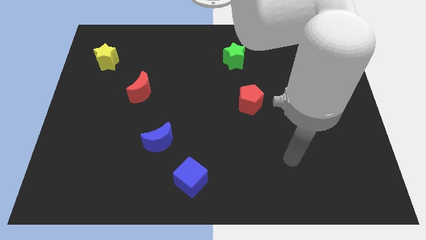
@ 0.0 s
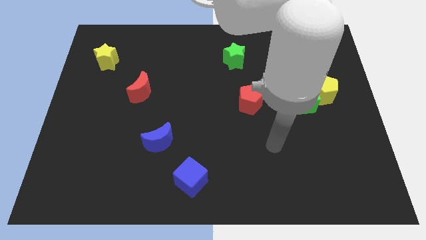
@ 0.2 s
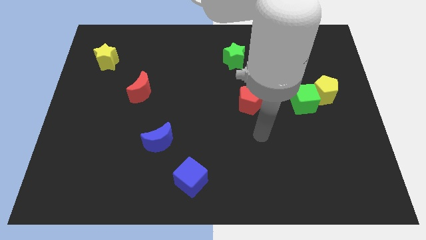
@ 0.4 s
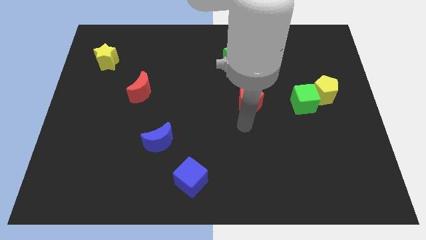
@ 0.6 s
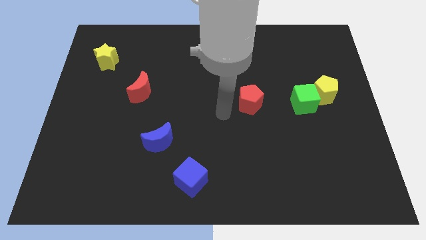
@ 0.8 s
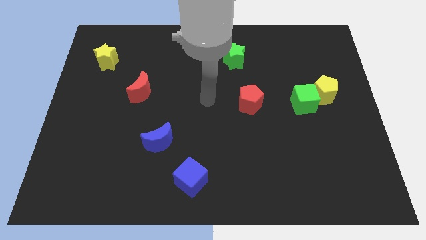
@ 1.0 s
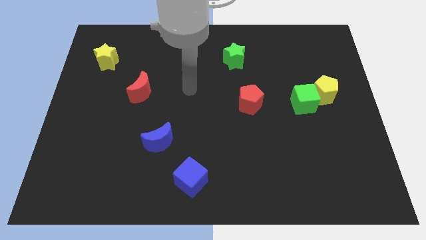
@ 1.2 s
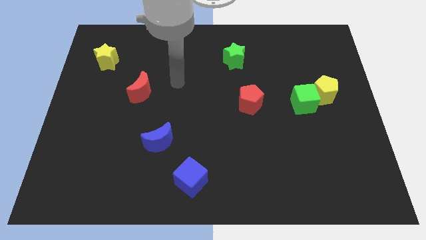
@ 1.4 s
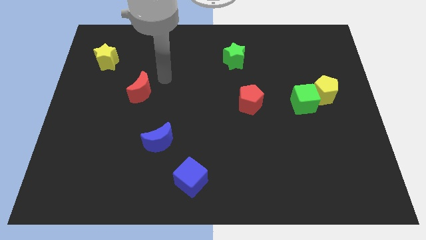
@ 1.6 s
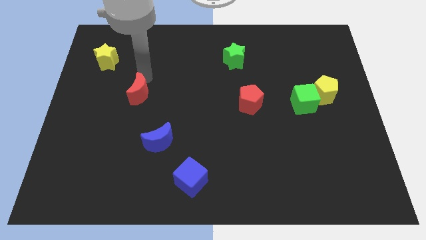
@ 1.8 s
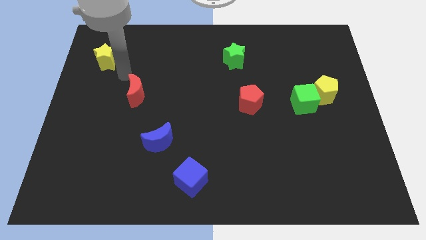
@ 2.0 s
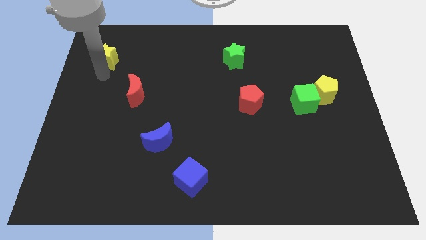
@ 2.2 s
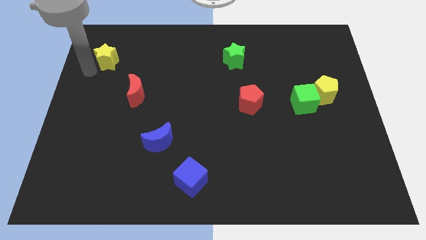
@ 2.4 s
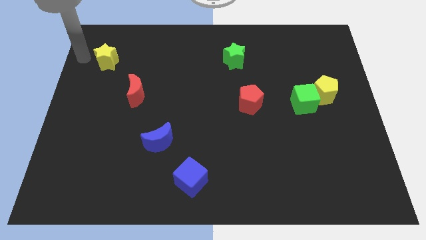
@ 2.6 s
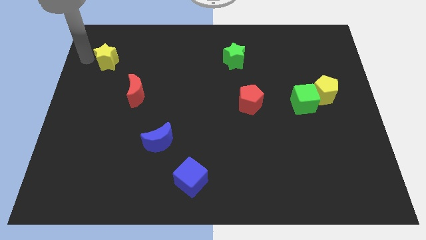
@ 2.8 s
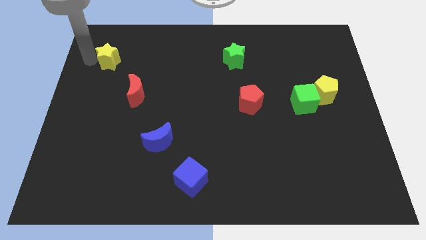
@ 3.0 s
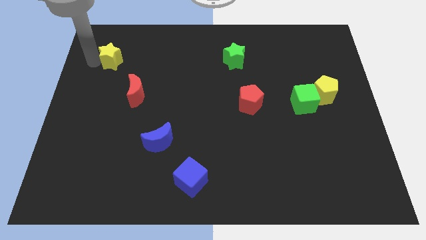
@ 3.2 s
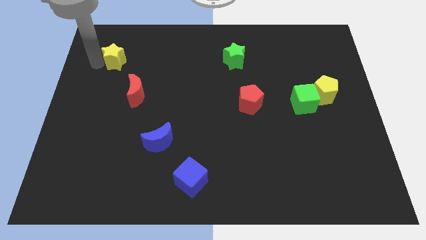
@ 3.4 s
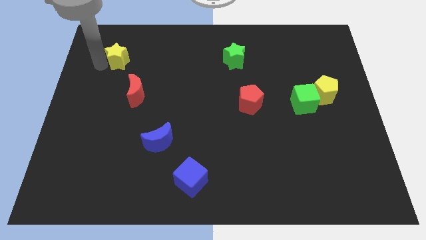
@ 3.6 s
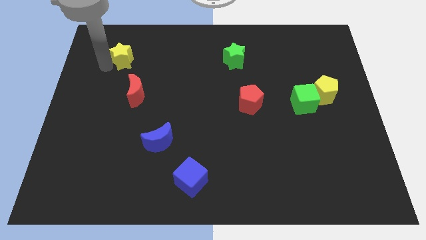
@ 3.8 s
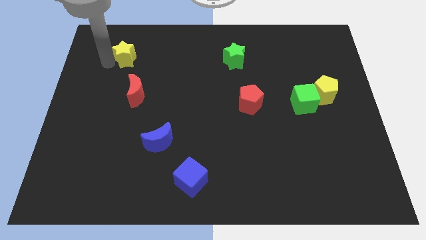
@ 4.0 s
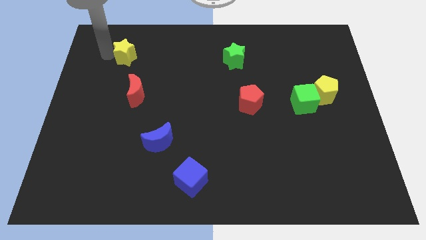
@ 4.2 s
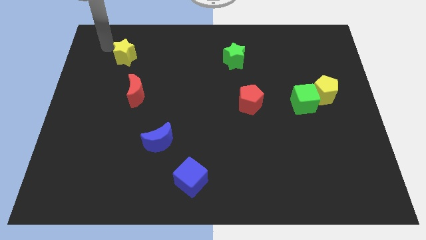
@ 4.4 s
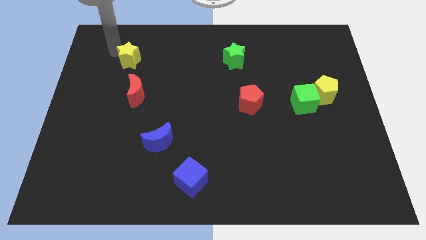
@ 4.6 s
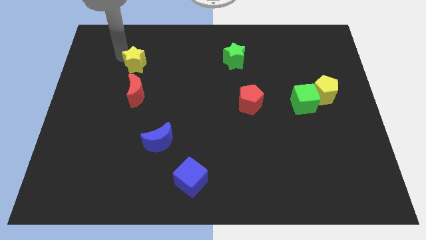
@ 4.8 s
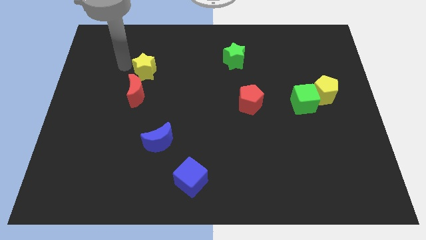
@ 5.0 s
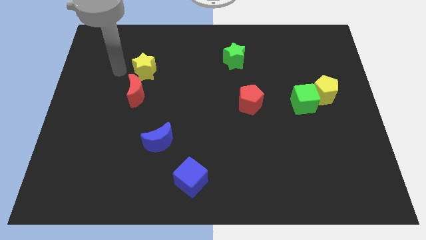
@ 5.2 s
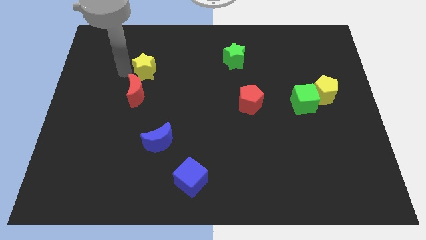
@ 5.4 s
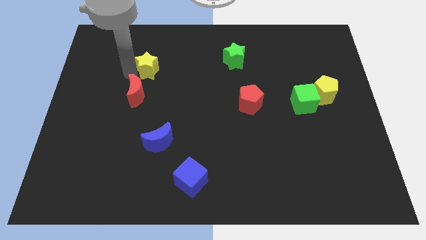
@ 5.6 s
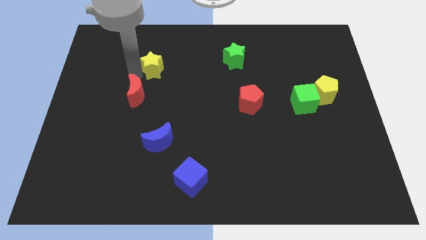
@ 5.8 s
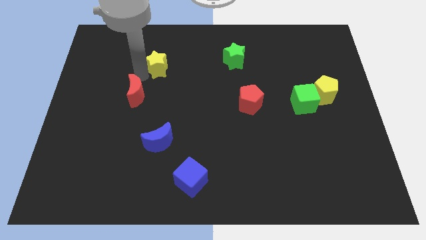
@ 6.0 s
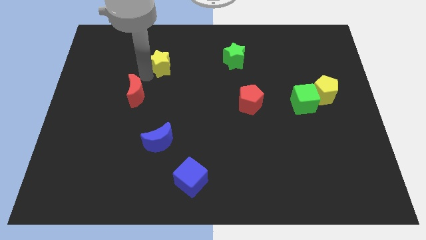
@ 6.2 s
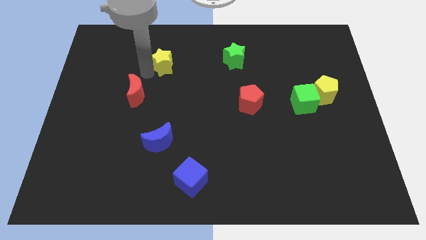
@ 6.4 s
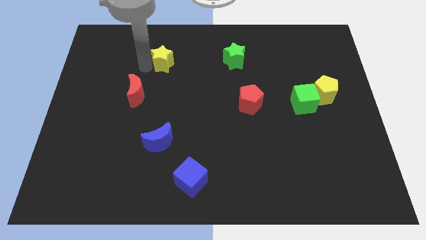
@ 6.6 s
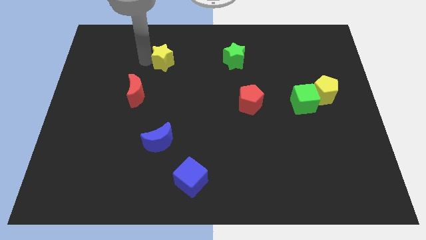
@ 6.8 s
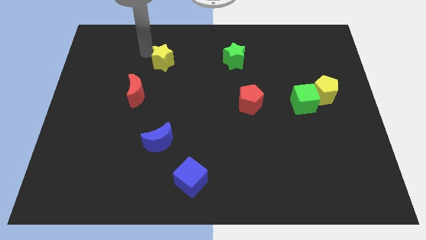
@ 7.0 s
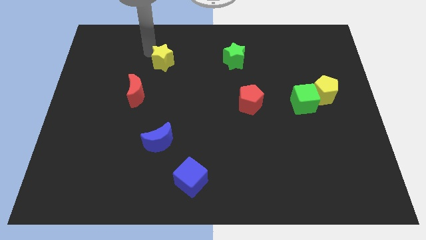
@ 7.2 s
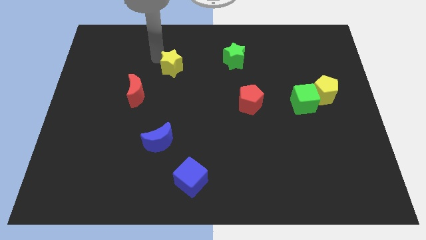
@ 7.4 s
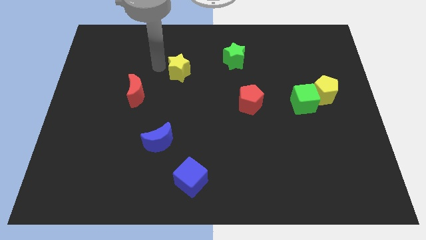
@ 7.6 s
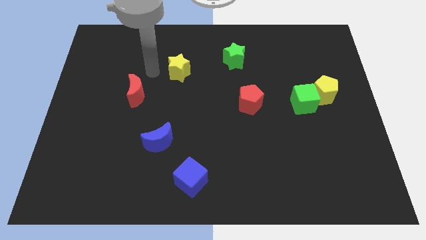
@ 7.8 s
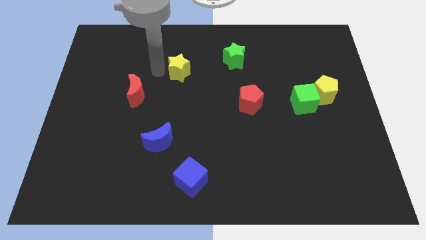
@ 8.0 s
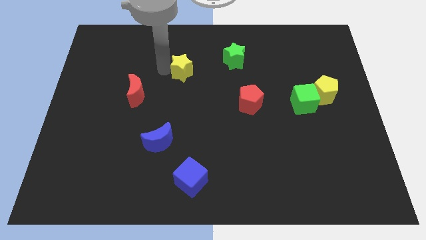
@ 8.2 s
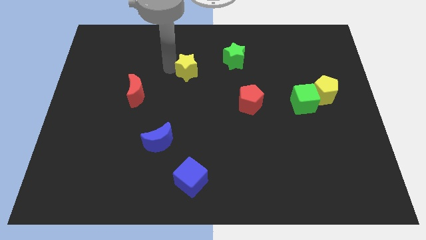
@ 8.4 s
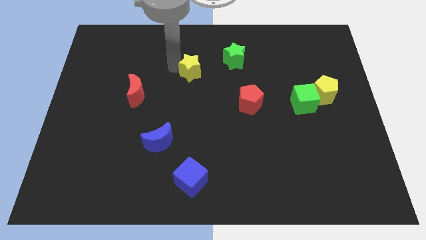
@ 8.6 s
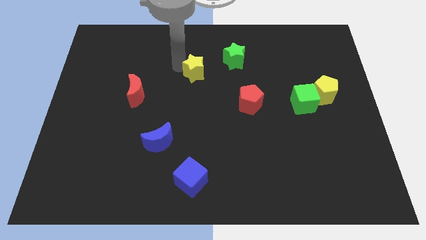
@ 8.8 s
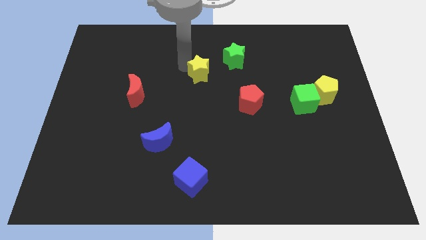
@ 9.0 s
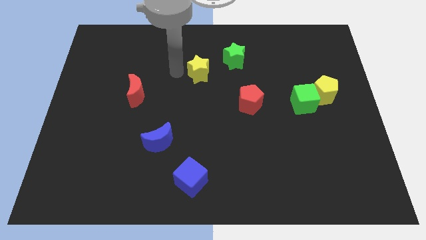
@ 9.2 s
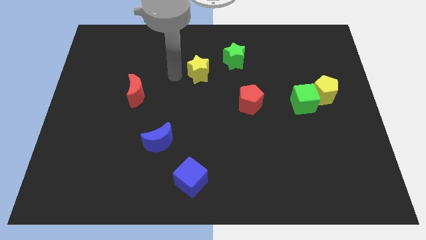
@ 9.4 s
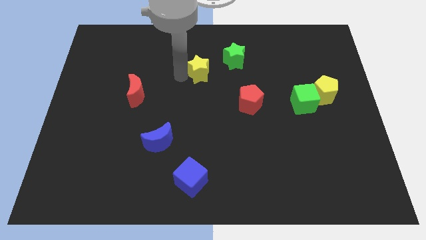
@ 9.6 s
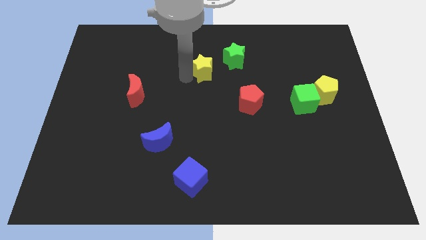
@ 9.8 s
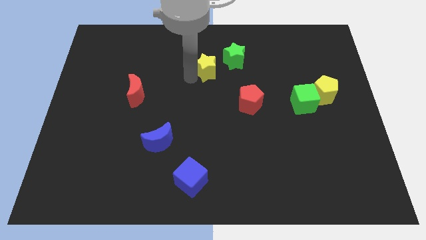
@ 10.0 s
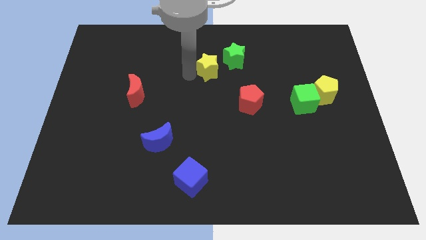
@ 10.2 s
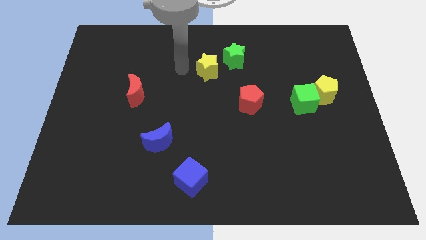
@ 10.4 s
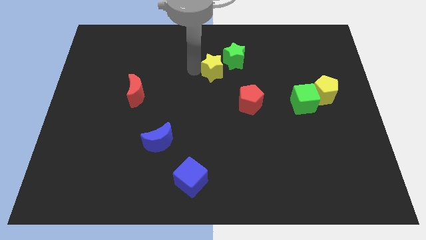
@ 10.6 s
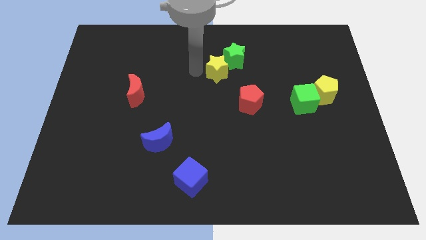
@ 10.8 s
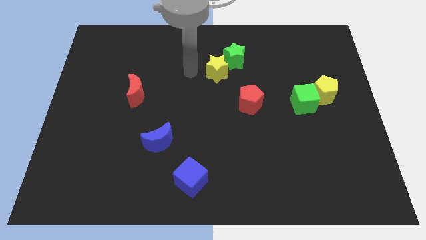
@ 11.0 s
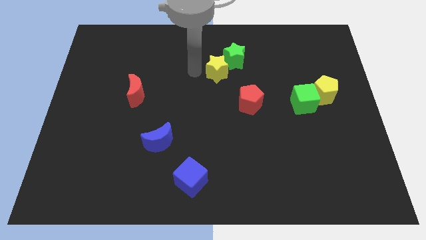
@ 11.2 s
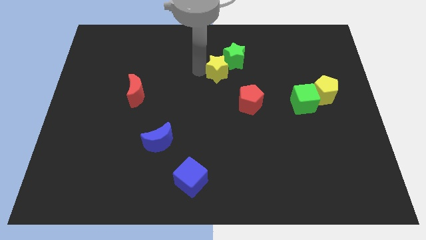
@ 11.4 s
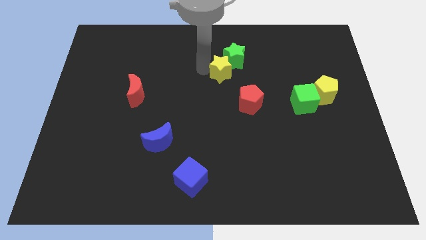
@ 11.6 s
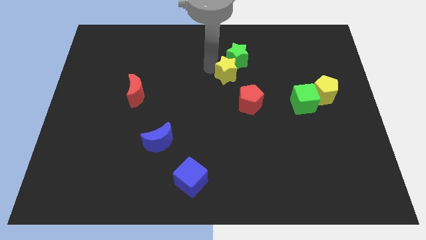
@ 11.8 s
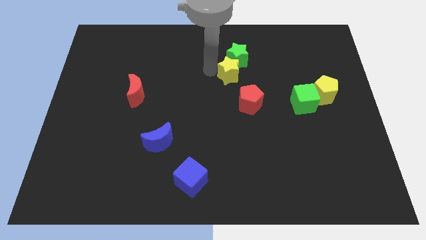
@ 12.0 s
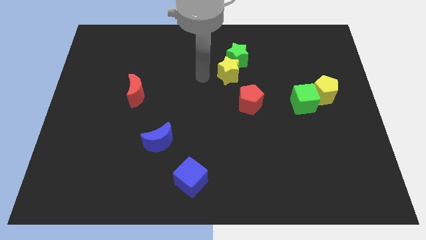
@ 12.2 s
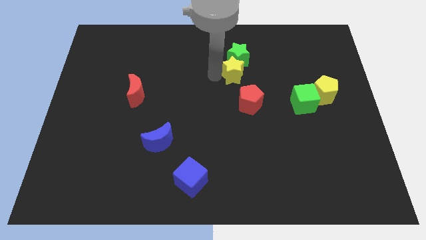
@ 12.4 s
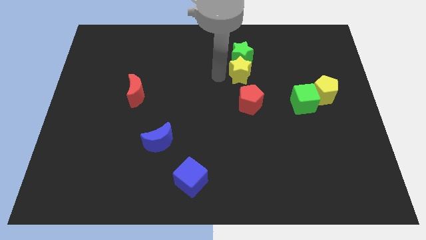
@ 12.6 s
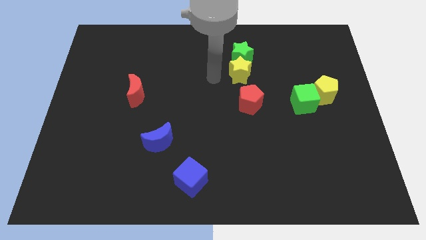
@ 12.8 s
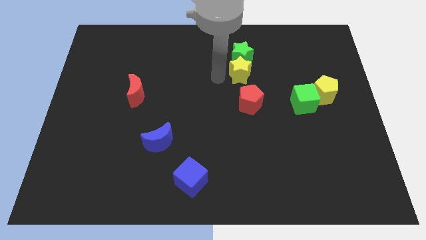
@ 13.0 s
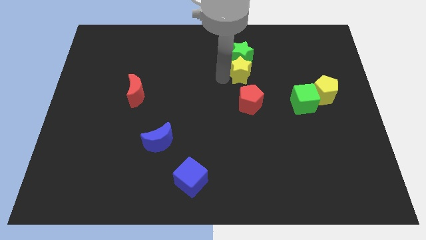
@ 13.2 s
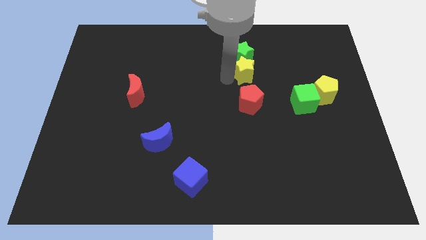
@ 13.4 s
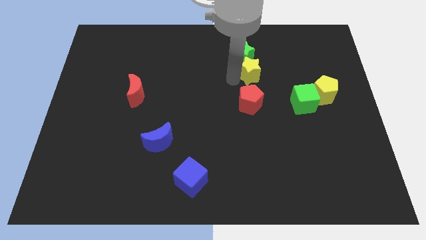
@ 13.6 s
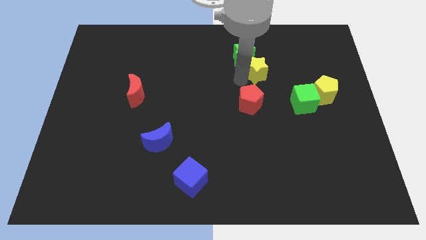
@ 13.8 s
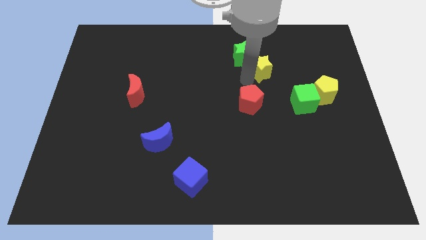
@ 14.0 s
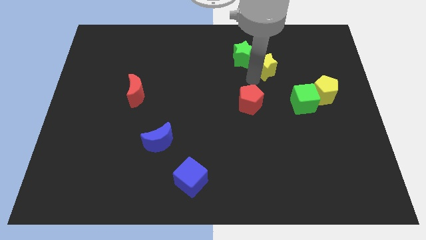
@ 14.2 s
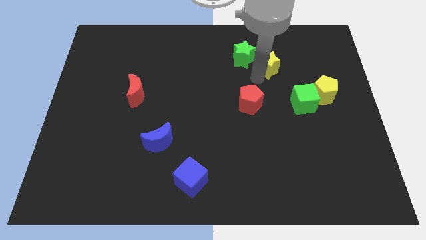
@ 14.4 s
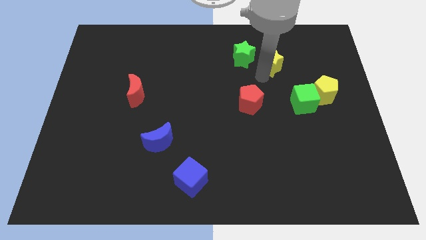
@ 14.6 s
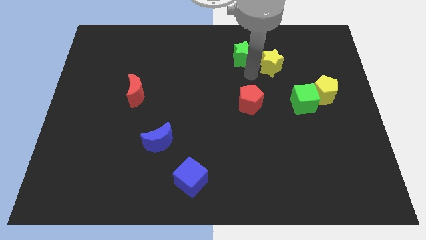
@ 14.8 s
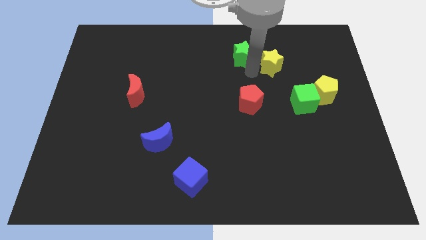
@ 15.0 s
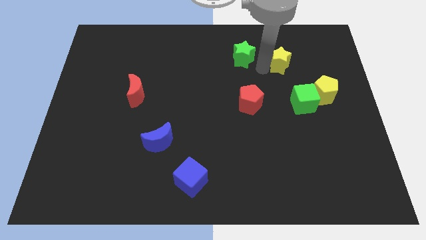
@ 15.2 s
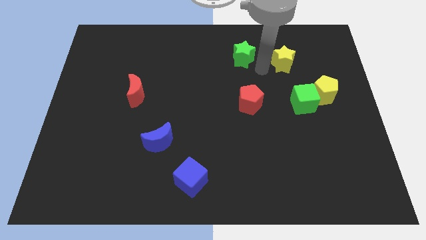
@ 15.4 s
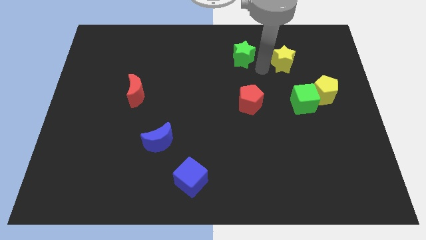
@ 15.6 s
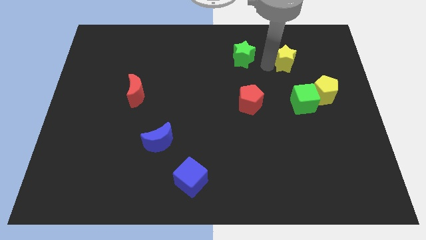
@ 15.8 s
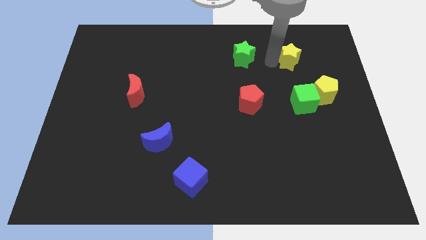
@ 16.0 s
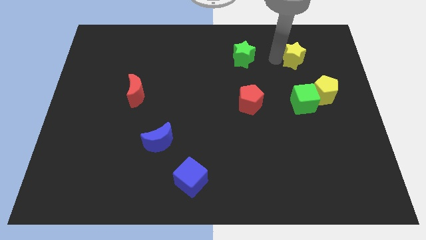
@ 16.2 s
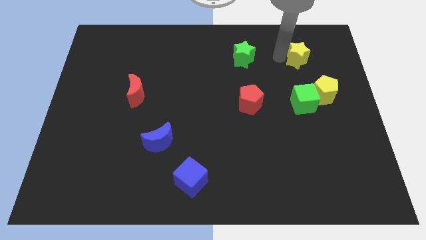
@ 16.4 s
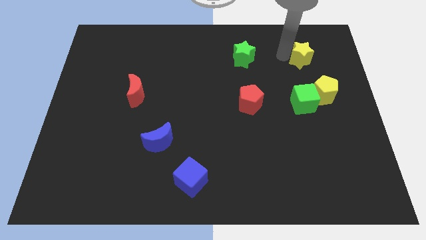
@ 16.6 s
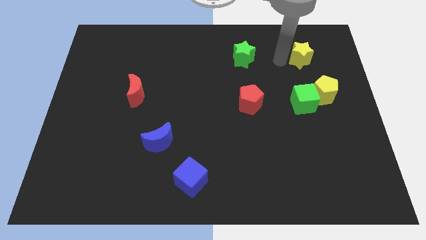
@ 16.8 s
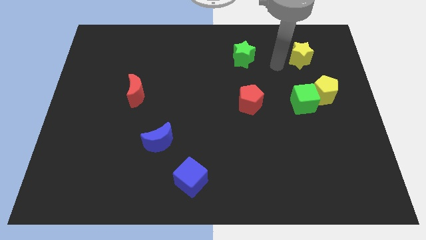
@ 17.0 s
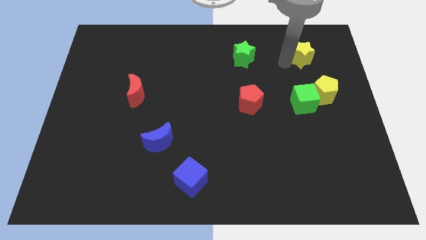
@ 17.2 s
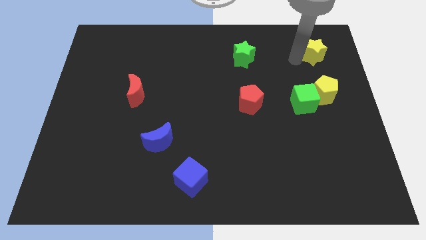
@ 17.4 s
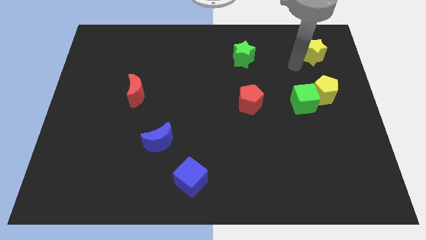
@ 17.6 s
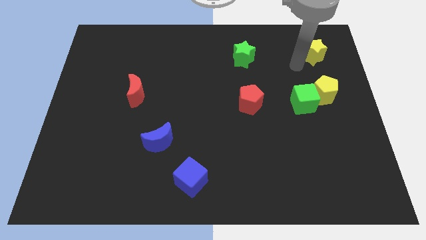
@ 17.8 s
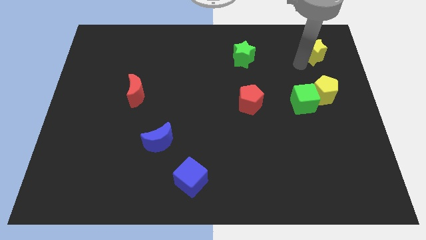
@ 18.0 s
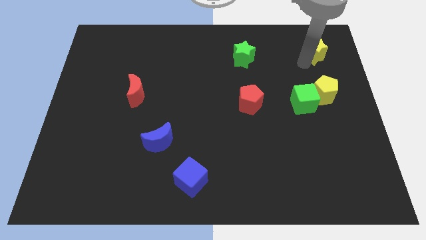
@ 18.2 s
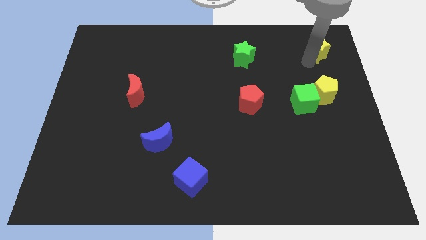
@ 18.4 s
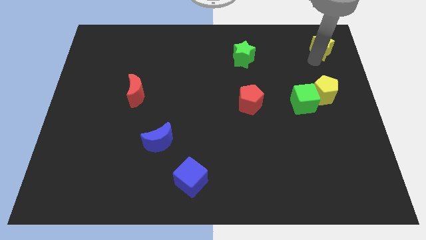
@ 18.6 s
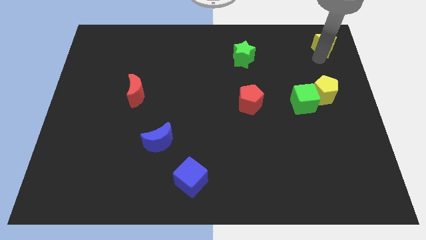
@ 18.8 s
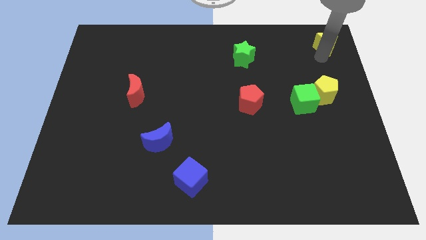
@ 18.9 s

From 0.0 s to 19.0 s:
put the yellow star to the upper right corner
